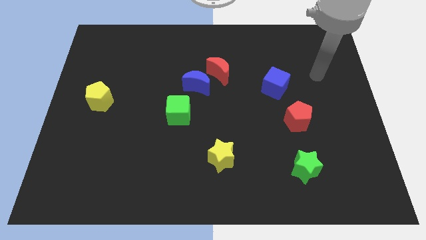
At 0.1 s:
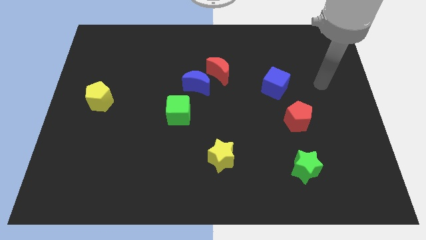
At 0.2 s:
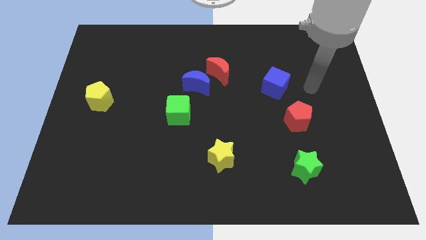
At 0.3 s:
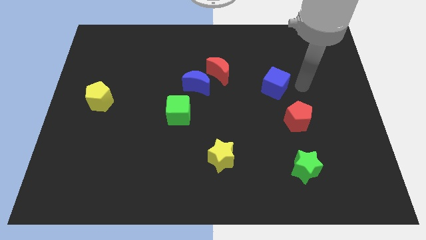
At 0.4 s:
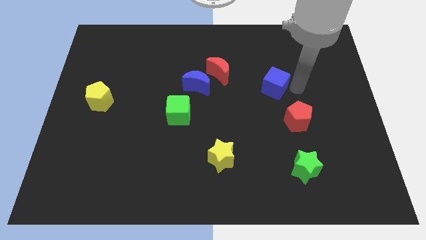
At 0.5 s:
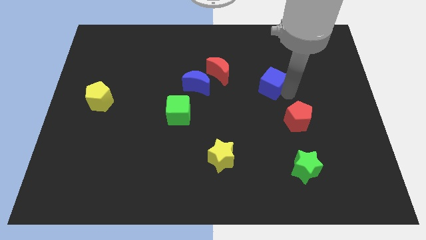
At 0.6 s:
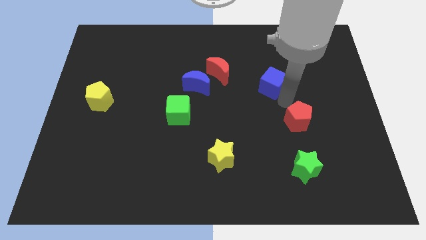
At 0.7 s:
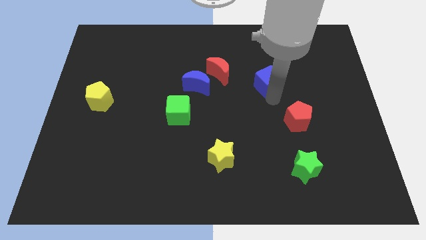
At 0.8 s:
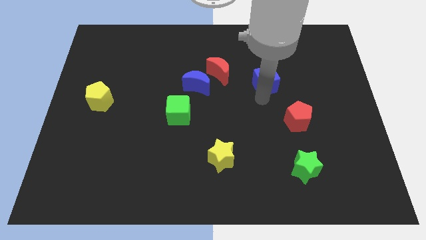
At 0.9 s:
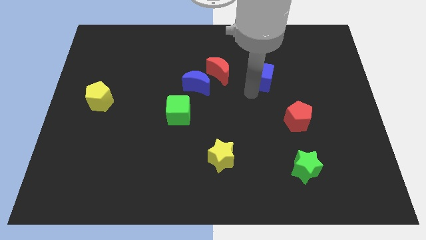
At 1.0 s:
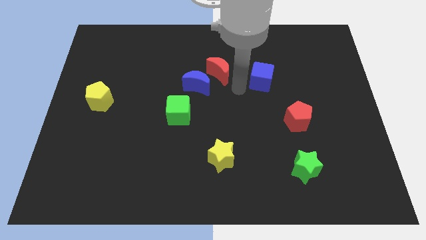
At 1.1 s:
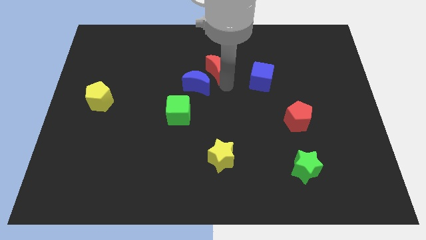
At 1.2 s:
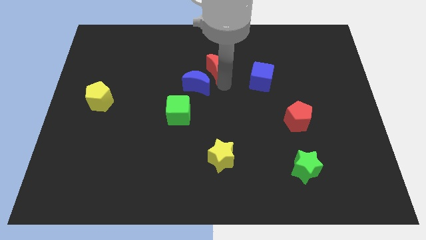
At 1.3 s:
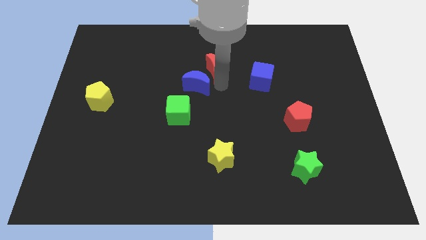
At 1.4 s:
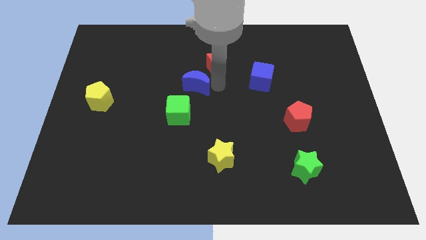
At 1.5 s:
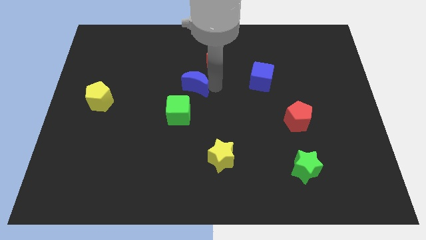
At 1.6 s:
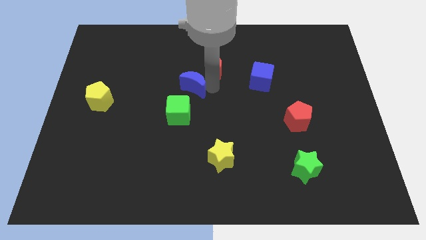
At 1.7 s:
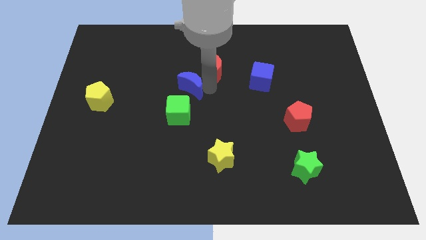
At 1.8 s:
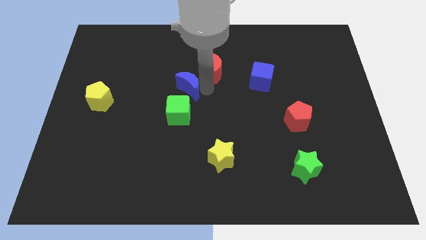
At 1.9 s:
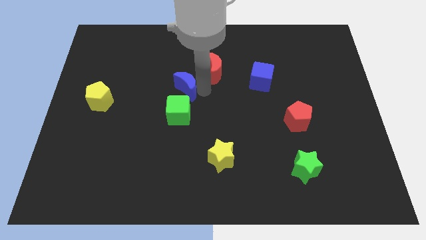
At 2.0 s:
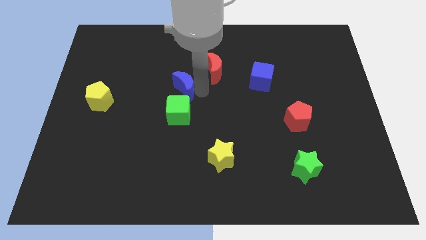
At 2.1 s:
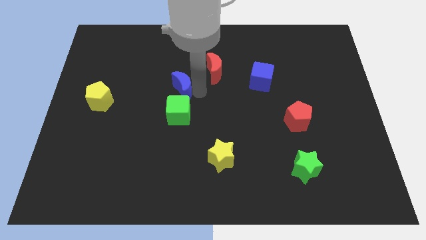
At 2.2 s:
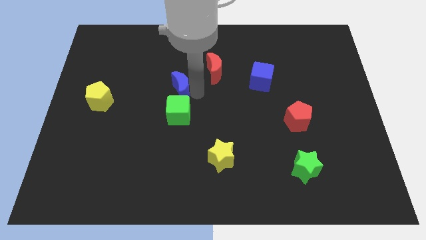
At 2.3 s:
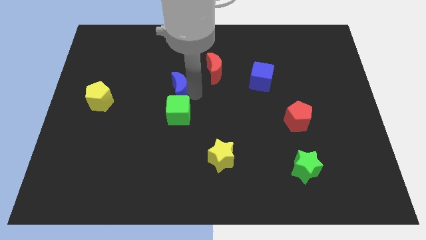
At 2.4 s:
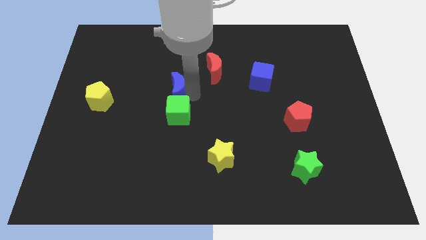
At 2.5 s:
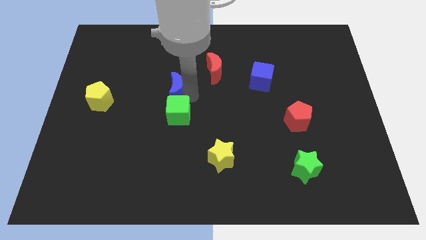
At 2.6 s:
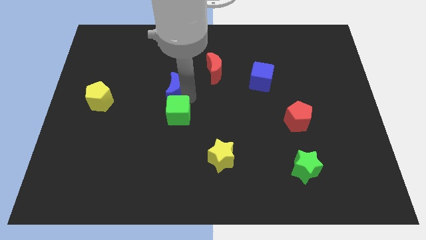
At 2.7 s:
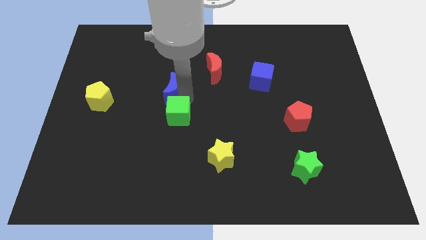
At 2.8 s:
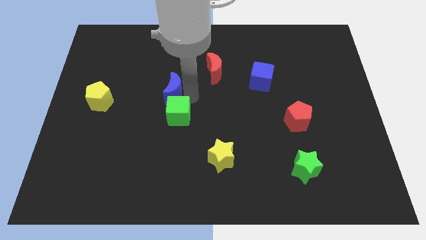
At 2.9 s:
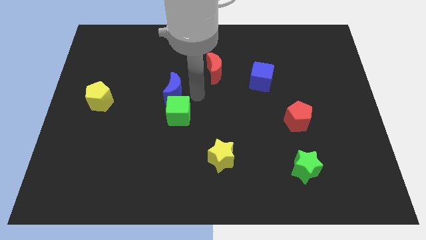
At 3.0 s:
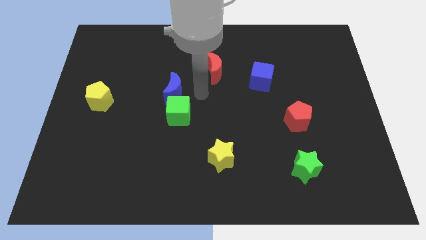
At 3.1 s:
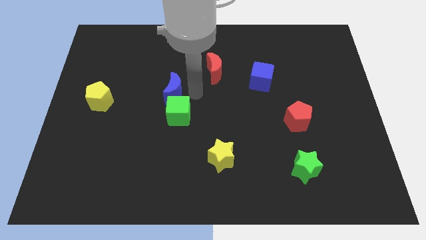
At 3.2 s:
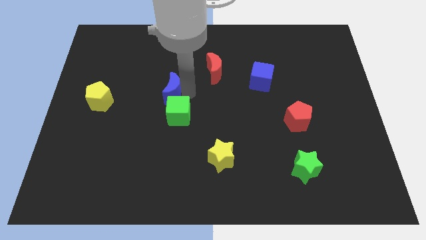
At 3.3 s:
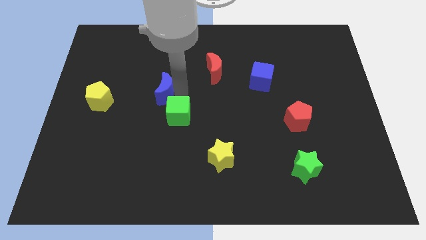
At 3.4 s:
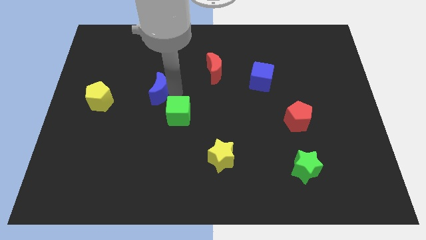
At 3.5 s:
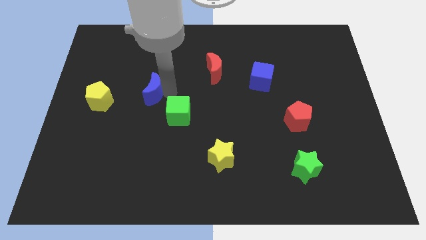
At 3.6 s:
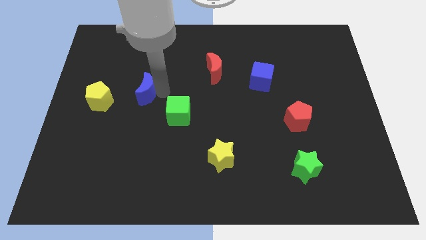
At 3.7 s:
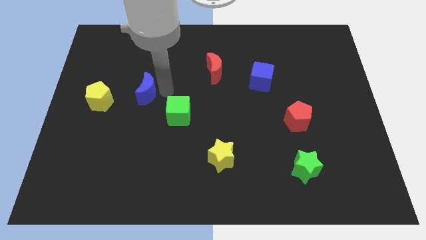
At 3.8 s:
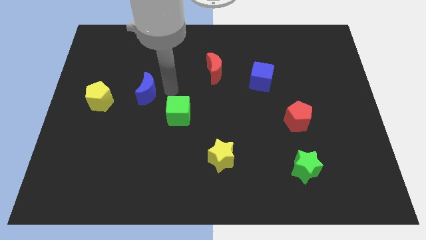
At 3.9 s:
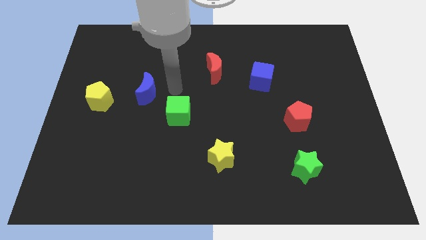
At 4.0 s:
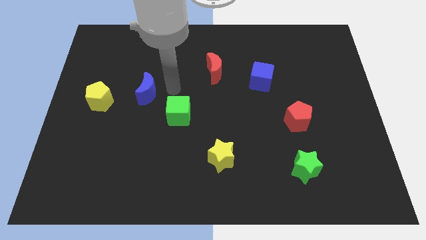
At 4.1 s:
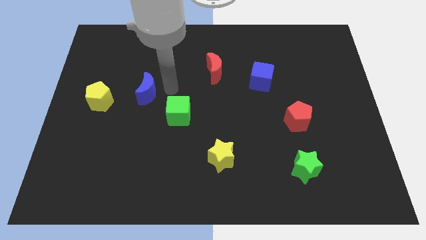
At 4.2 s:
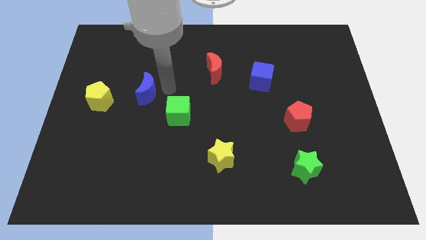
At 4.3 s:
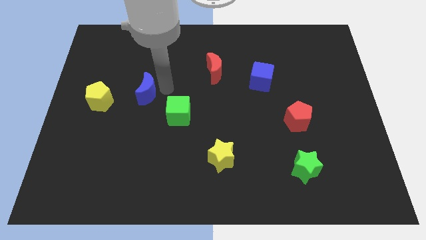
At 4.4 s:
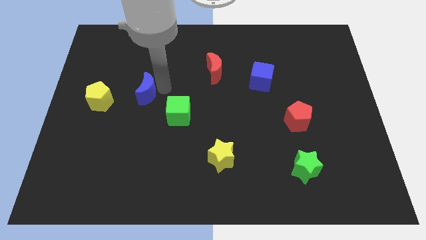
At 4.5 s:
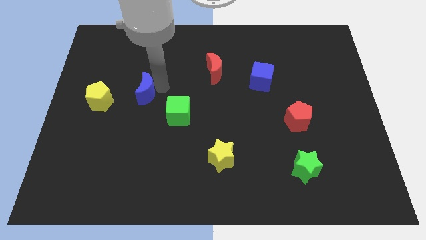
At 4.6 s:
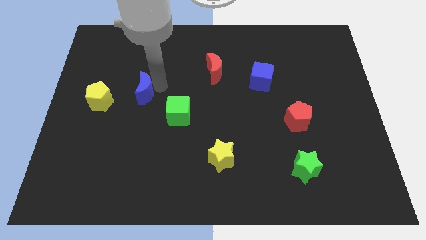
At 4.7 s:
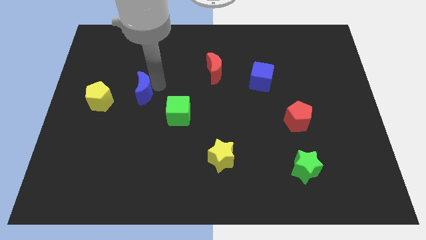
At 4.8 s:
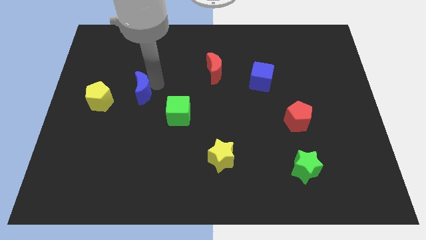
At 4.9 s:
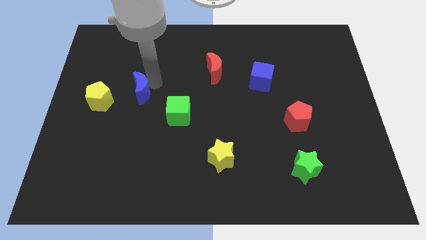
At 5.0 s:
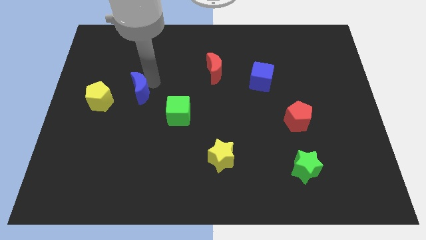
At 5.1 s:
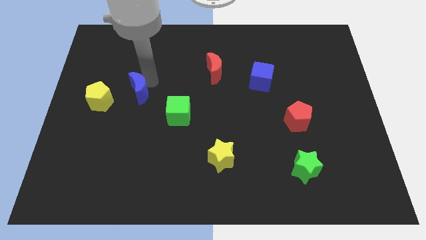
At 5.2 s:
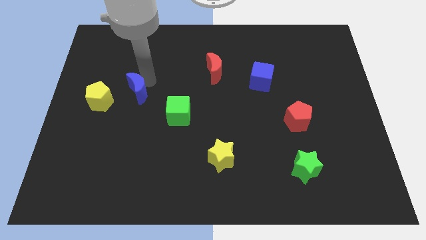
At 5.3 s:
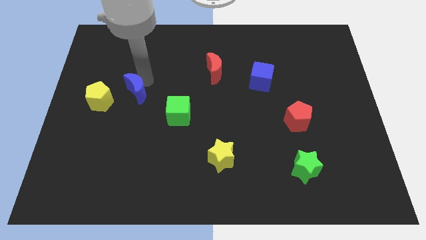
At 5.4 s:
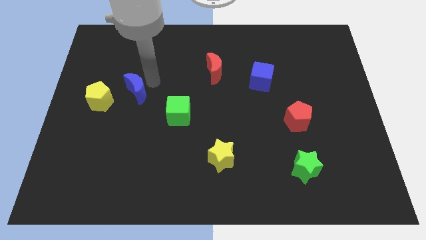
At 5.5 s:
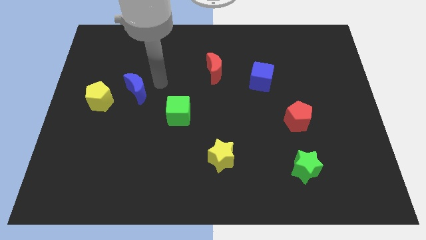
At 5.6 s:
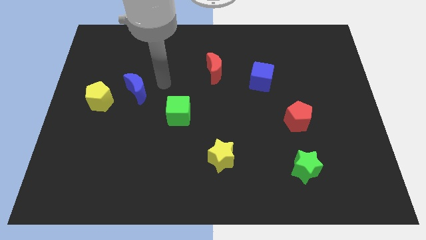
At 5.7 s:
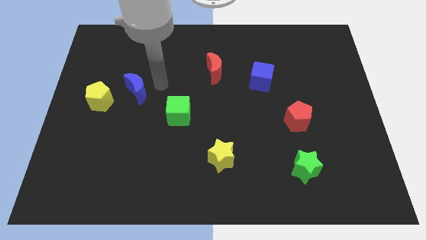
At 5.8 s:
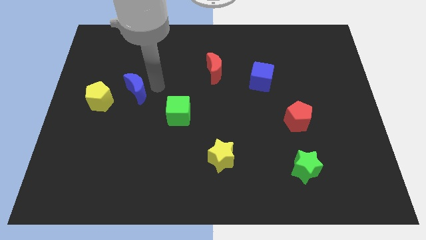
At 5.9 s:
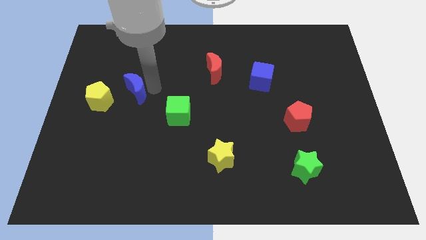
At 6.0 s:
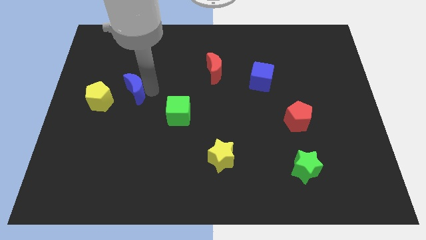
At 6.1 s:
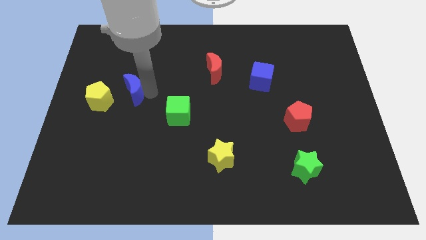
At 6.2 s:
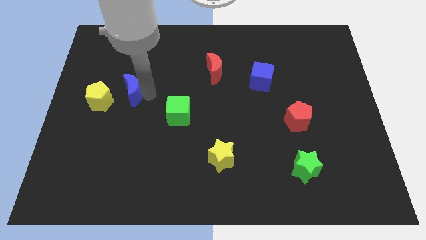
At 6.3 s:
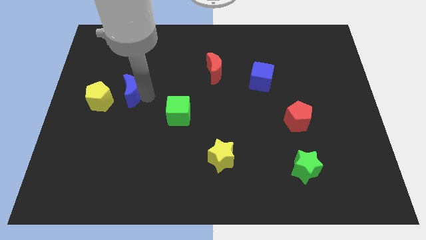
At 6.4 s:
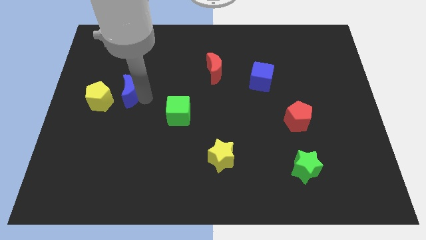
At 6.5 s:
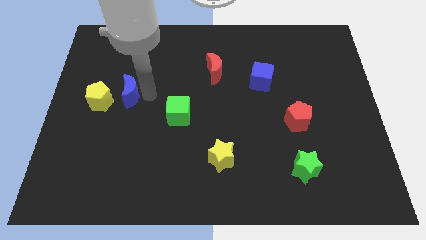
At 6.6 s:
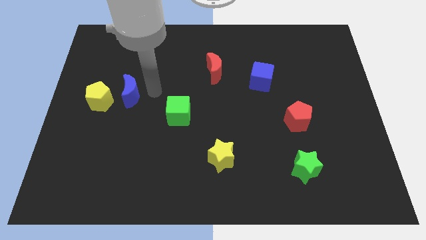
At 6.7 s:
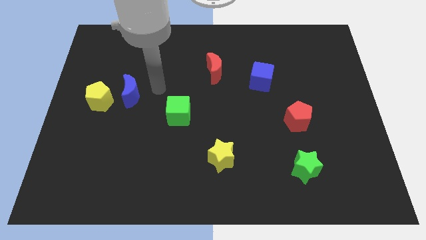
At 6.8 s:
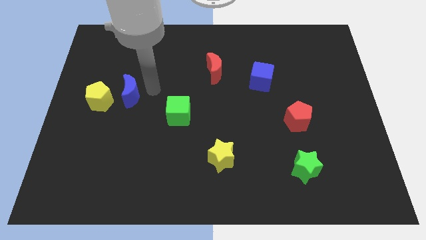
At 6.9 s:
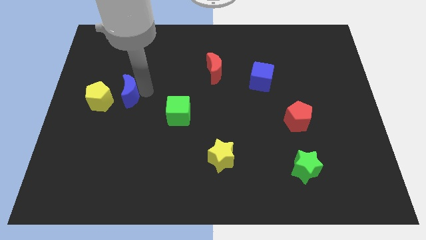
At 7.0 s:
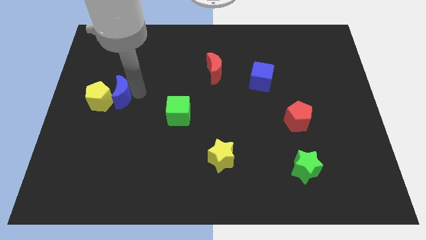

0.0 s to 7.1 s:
put the blue moon next to the yellow pentagon

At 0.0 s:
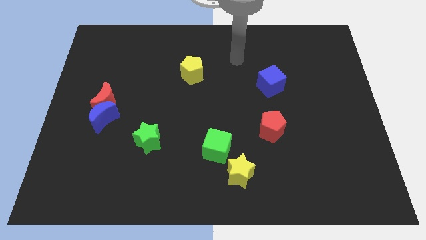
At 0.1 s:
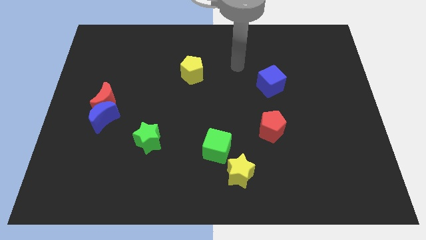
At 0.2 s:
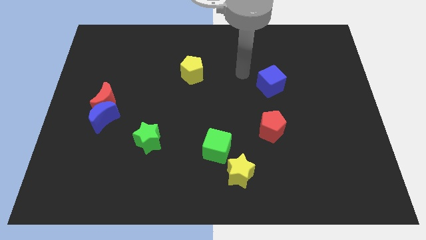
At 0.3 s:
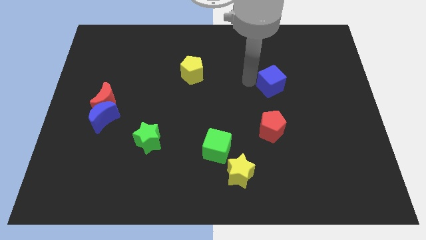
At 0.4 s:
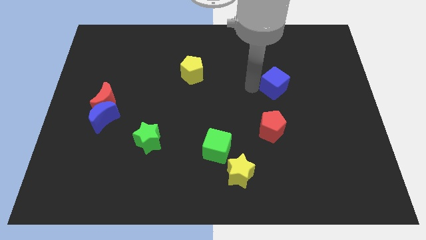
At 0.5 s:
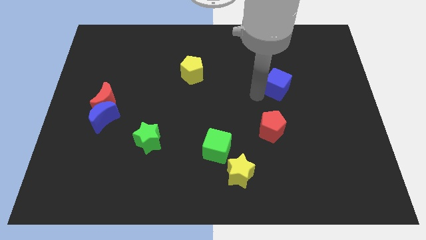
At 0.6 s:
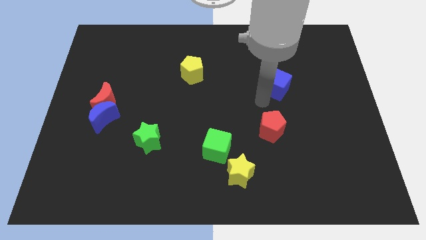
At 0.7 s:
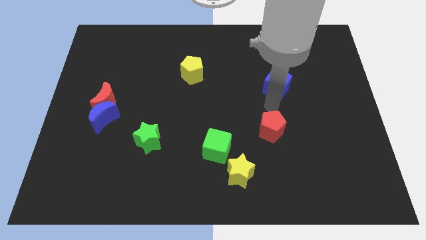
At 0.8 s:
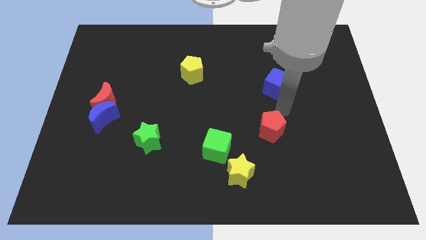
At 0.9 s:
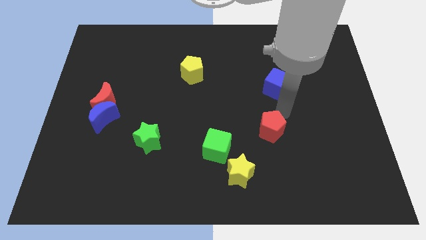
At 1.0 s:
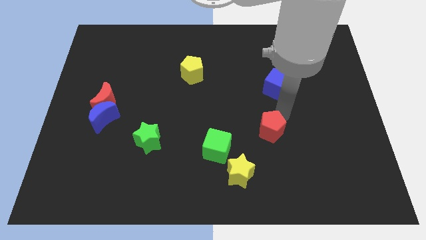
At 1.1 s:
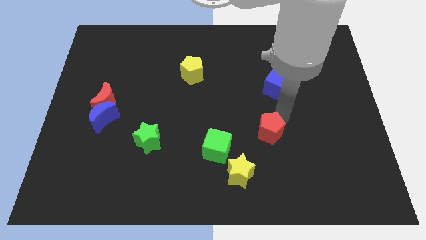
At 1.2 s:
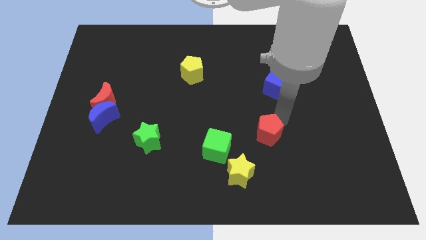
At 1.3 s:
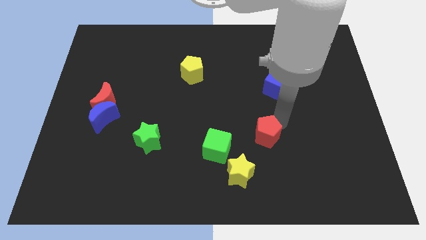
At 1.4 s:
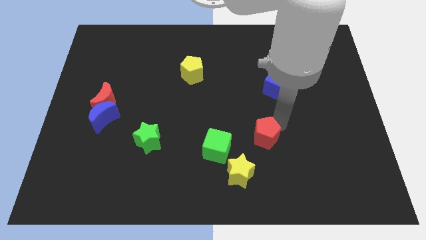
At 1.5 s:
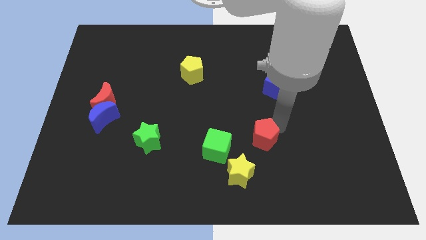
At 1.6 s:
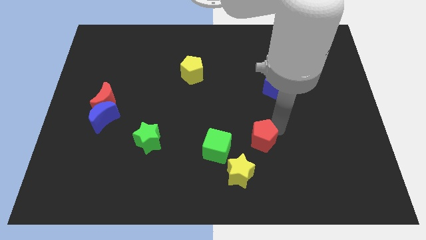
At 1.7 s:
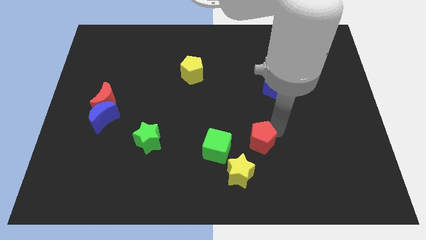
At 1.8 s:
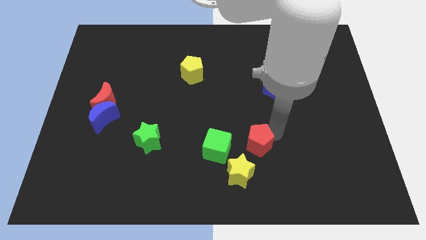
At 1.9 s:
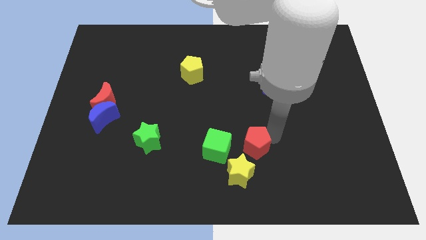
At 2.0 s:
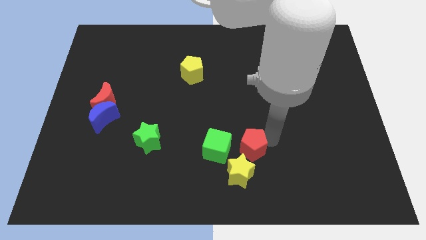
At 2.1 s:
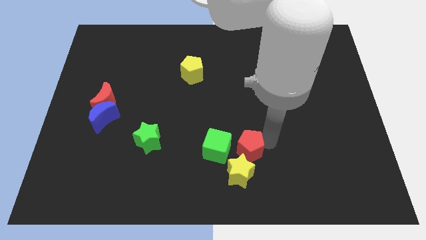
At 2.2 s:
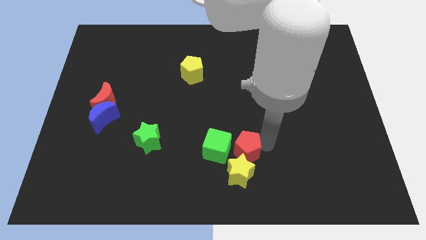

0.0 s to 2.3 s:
push the red pentagon next to the yellow star
